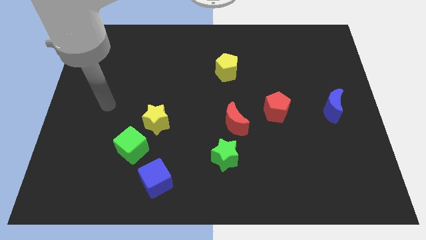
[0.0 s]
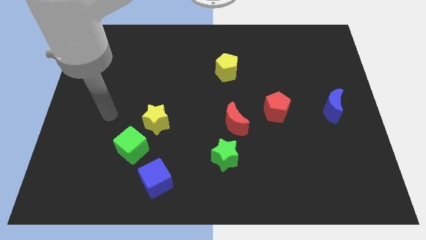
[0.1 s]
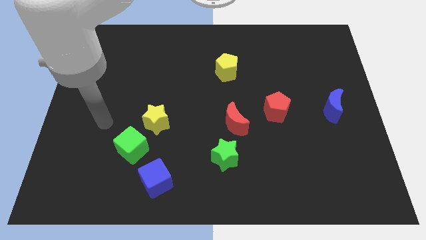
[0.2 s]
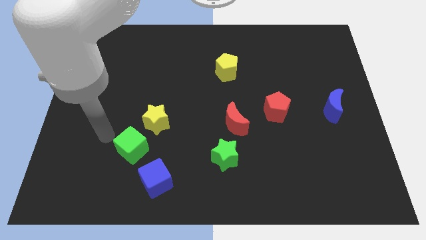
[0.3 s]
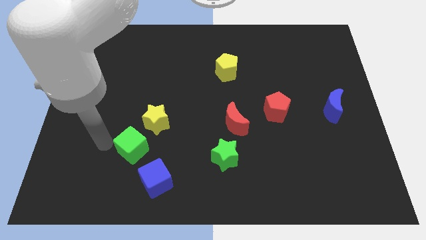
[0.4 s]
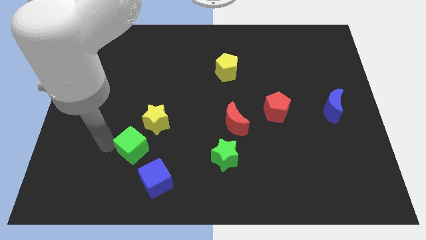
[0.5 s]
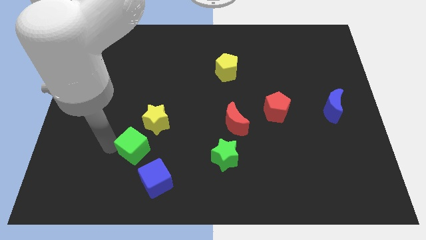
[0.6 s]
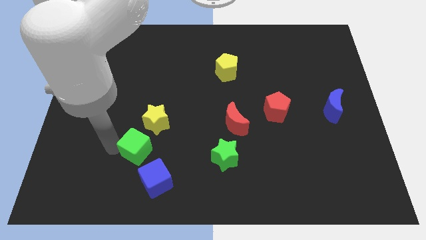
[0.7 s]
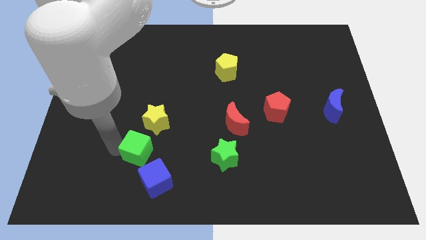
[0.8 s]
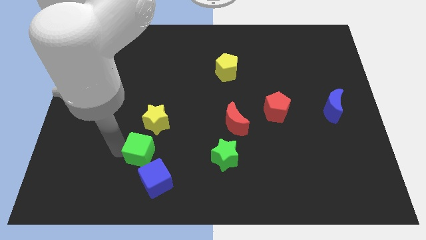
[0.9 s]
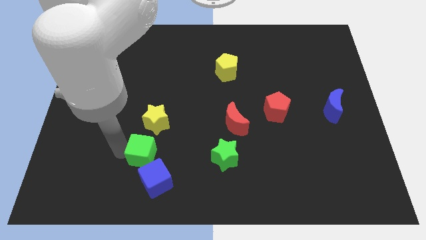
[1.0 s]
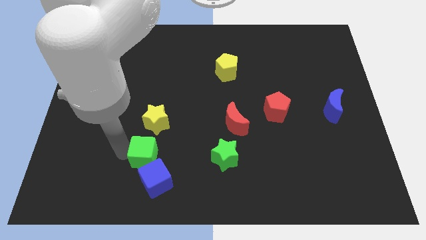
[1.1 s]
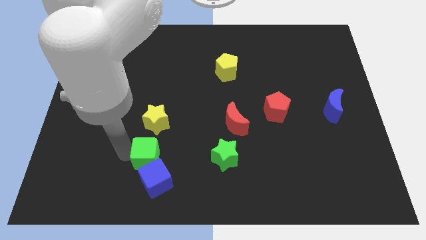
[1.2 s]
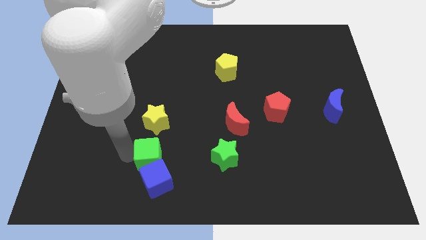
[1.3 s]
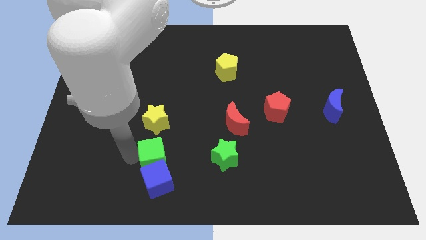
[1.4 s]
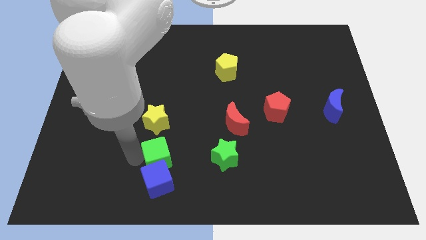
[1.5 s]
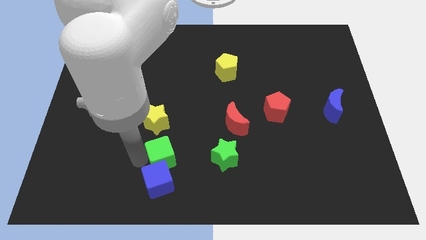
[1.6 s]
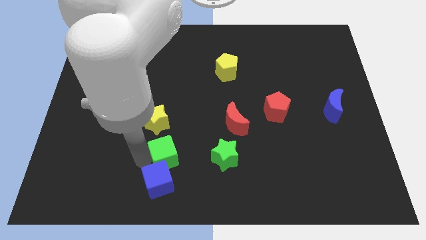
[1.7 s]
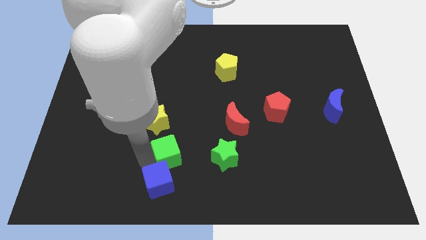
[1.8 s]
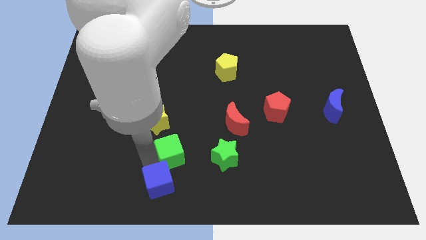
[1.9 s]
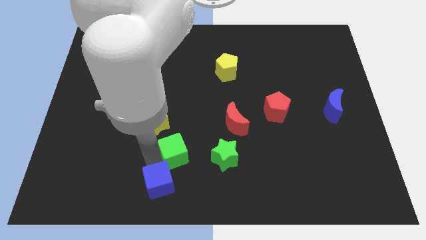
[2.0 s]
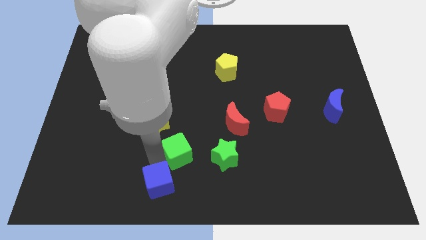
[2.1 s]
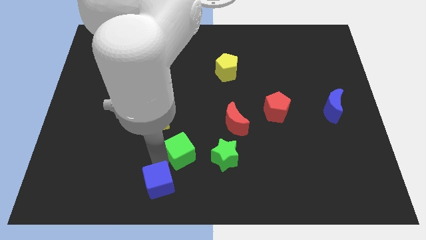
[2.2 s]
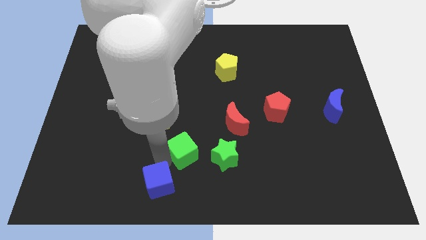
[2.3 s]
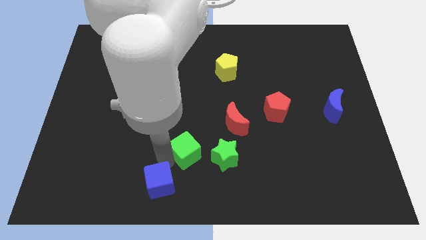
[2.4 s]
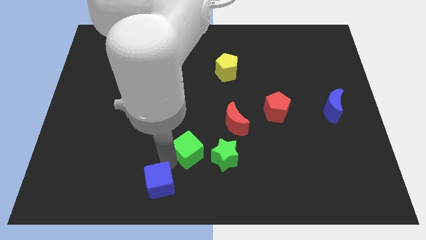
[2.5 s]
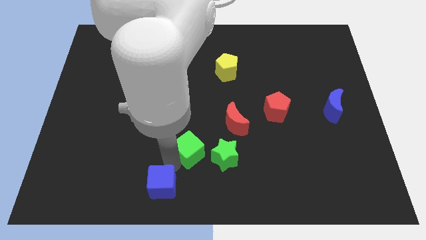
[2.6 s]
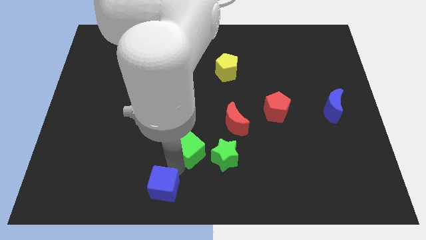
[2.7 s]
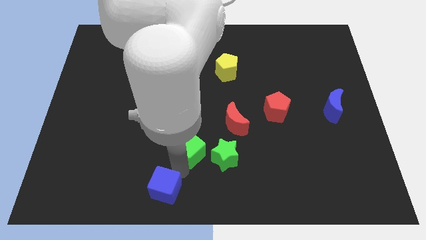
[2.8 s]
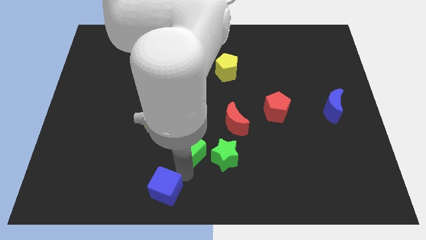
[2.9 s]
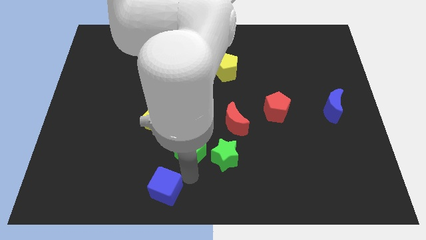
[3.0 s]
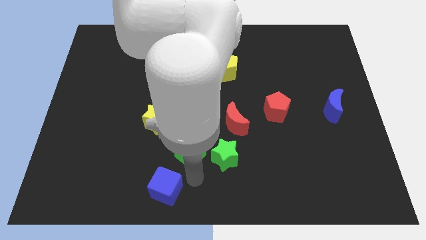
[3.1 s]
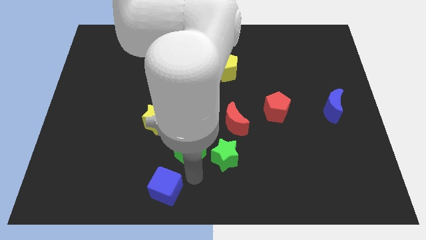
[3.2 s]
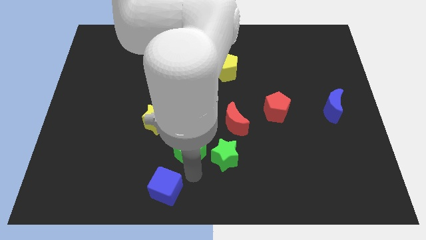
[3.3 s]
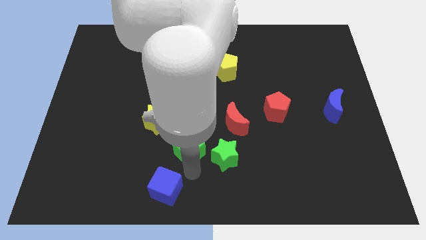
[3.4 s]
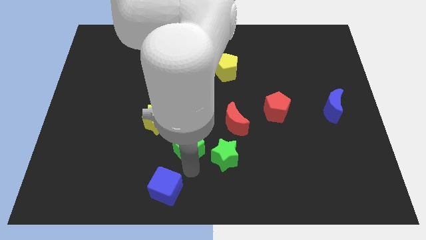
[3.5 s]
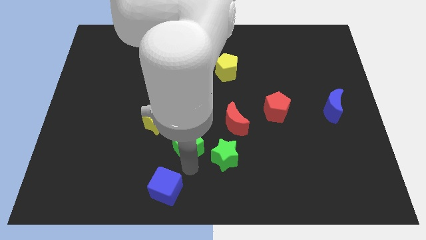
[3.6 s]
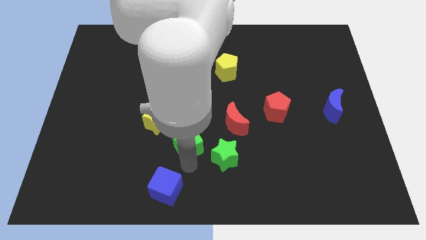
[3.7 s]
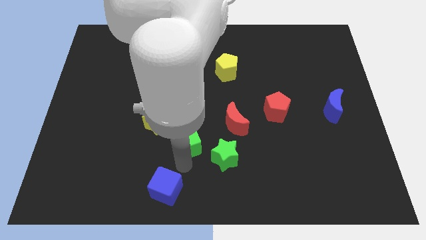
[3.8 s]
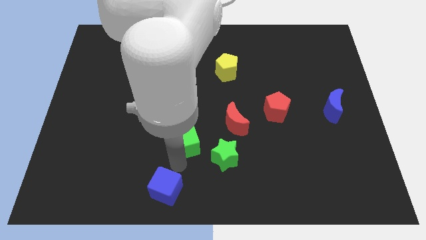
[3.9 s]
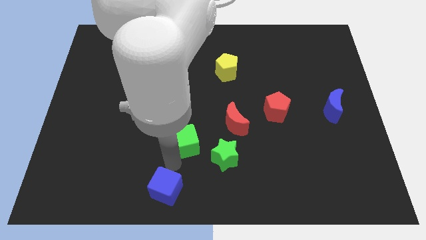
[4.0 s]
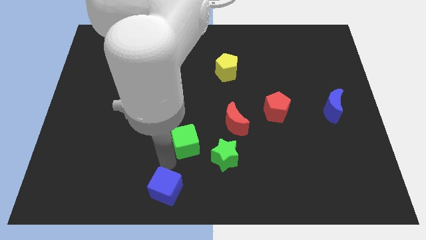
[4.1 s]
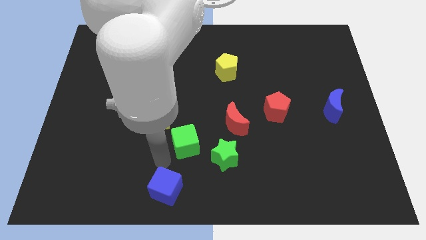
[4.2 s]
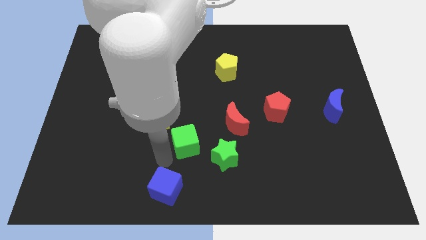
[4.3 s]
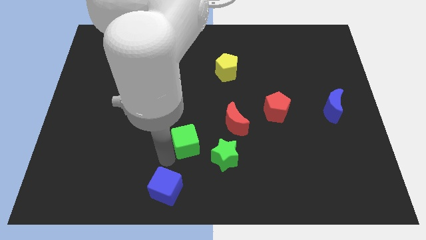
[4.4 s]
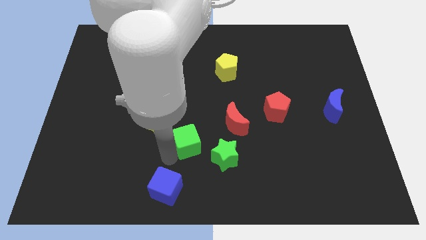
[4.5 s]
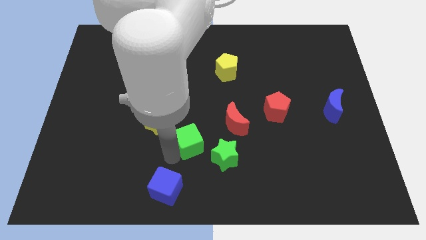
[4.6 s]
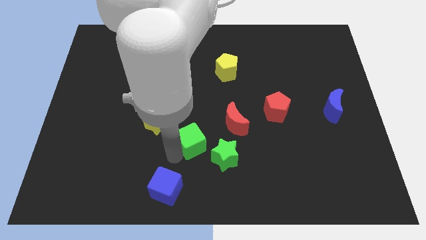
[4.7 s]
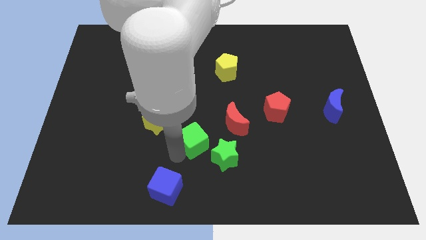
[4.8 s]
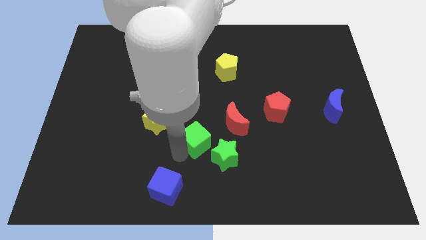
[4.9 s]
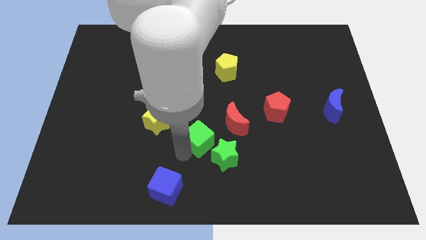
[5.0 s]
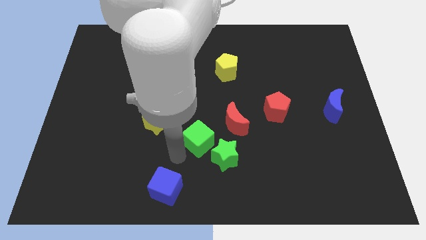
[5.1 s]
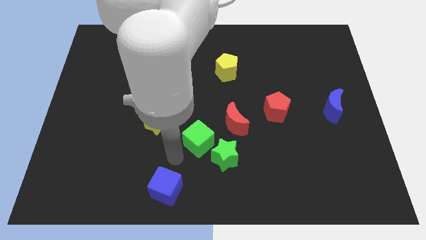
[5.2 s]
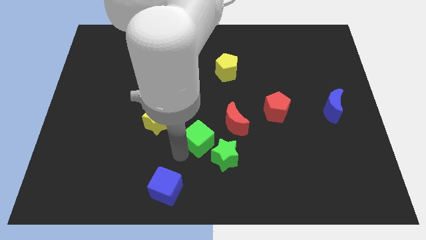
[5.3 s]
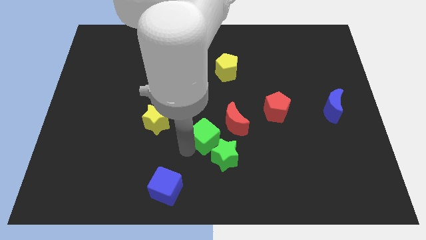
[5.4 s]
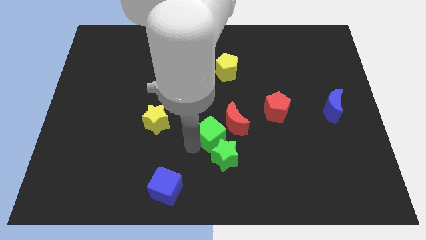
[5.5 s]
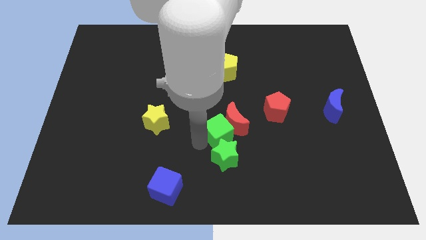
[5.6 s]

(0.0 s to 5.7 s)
push the green cube to the red moon

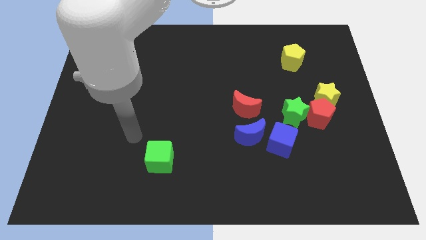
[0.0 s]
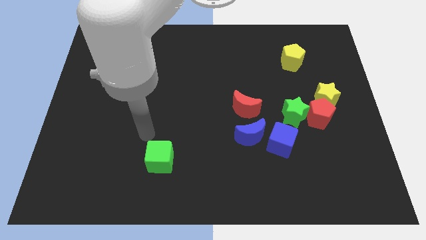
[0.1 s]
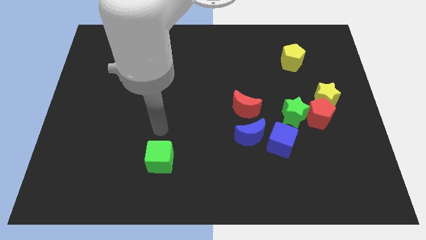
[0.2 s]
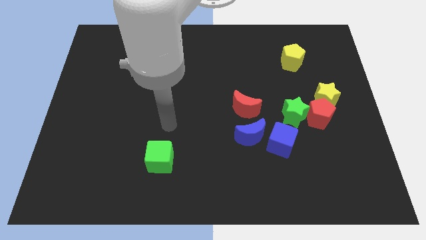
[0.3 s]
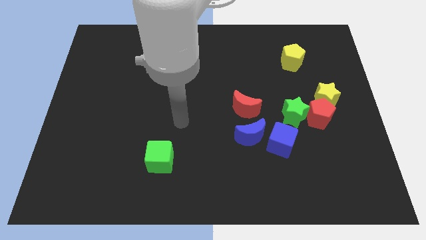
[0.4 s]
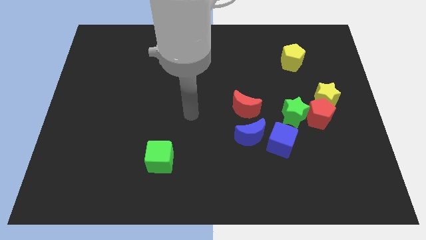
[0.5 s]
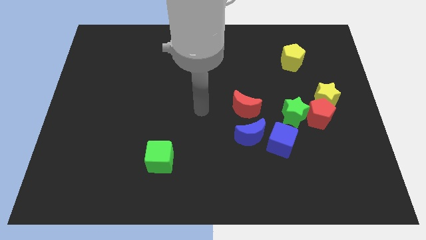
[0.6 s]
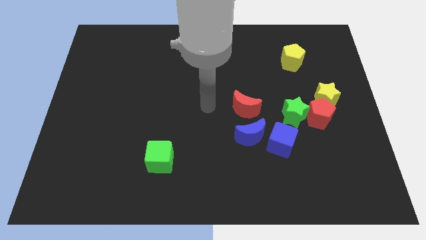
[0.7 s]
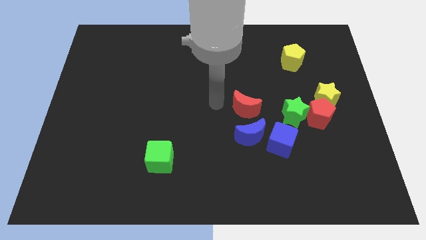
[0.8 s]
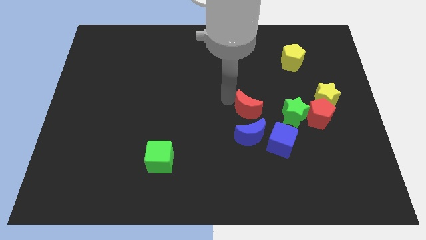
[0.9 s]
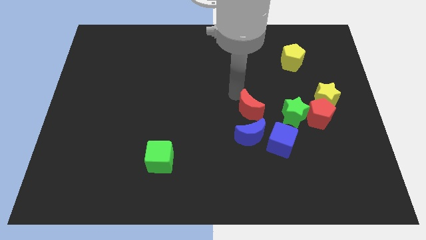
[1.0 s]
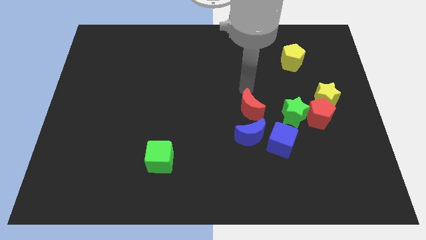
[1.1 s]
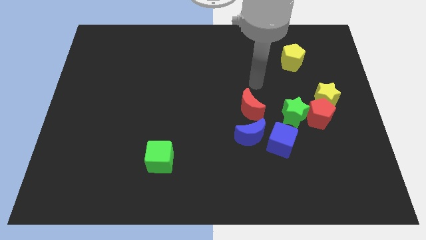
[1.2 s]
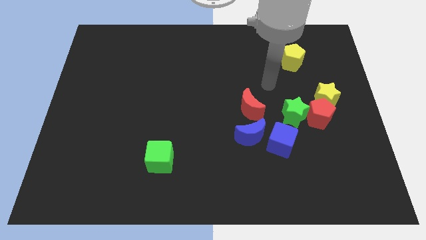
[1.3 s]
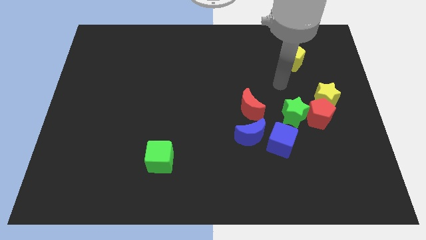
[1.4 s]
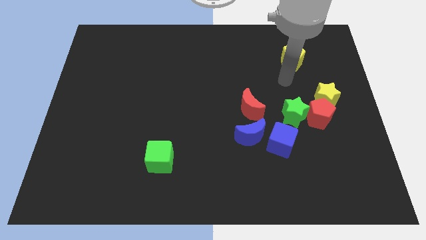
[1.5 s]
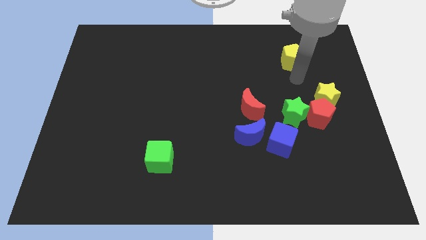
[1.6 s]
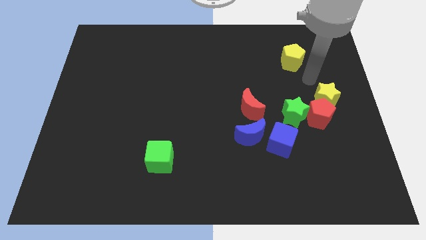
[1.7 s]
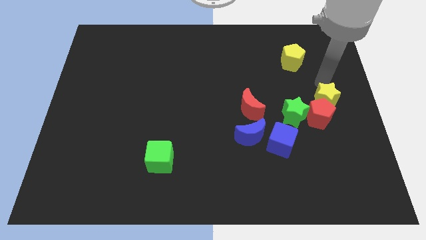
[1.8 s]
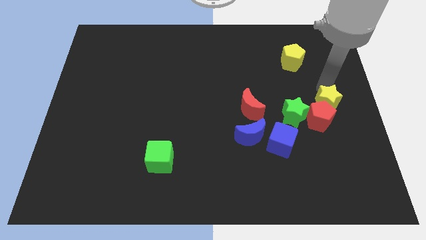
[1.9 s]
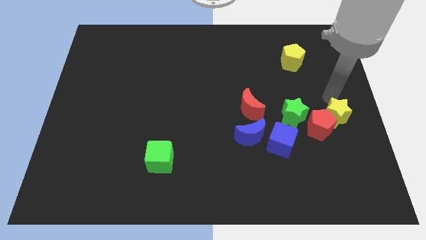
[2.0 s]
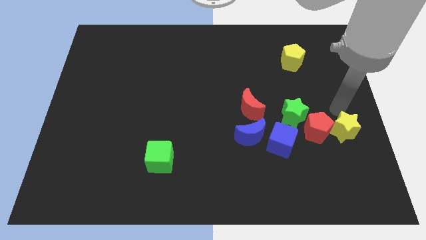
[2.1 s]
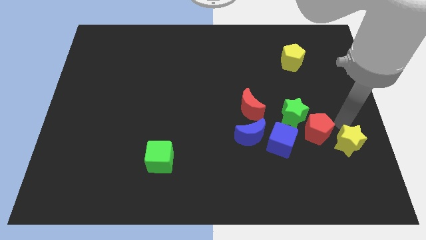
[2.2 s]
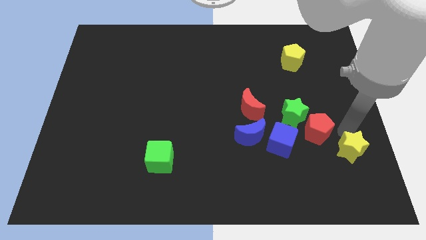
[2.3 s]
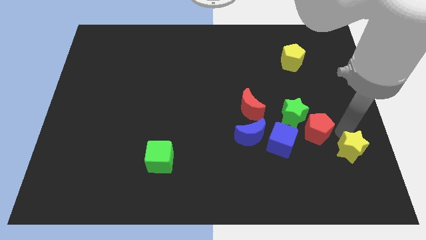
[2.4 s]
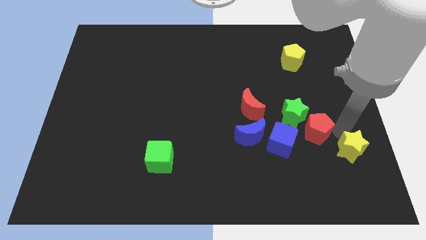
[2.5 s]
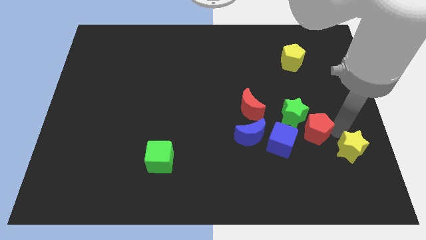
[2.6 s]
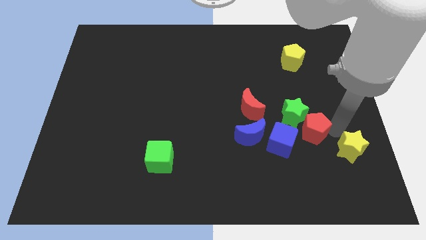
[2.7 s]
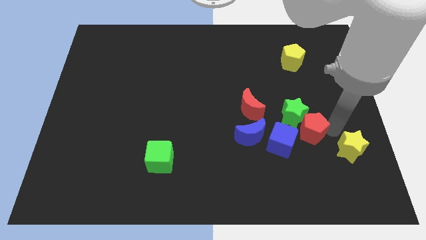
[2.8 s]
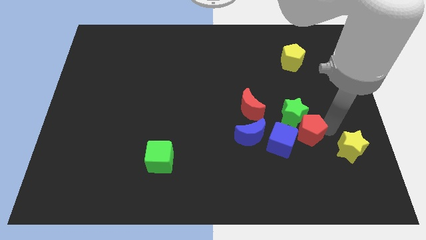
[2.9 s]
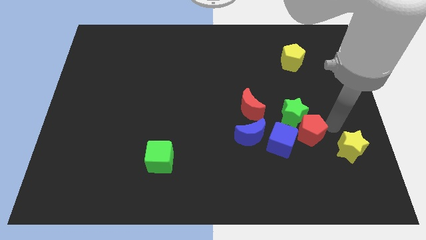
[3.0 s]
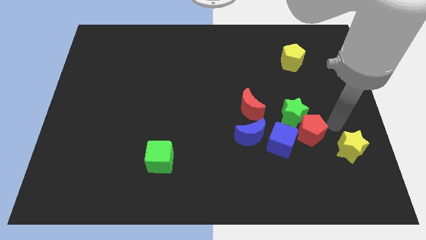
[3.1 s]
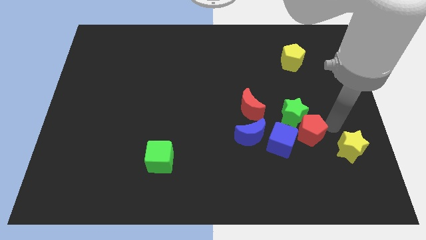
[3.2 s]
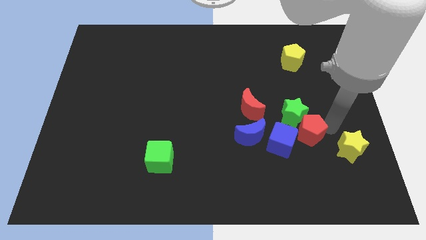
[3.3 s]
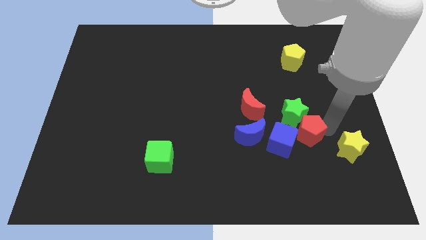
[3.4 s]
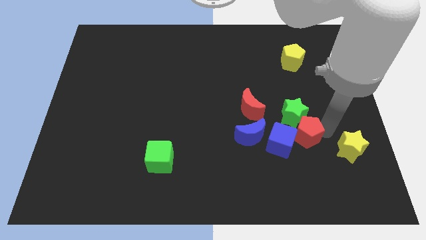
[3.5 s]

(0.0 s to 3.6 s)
put the red pentagon towards the blue cube
